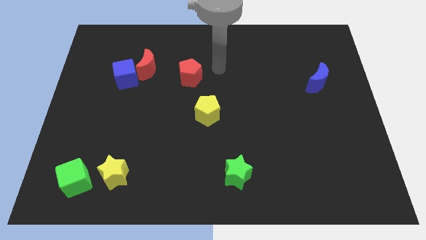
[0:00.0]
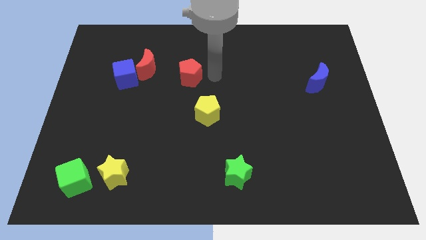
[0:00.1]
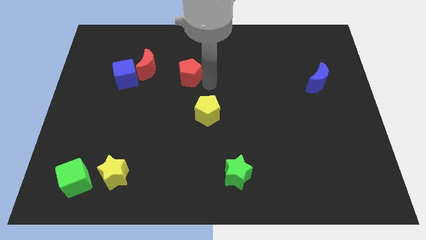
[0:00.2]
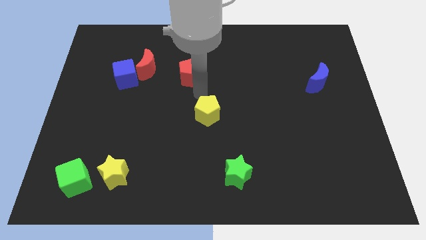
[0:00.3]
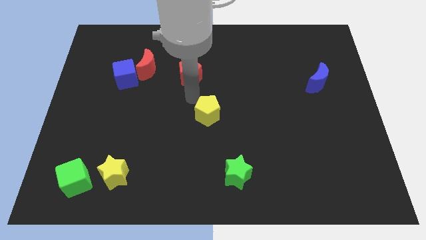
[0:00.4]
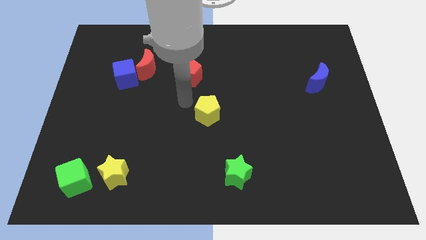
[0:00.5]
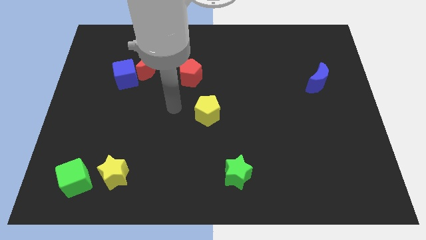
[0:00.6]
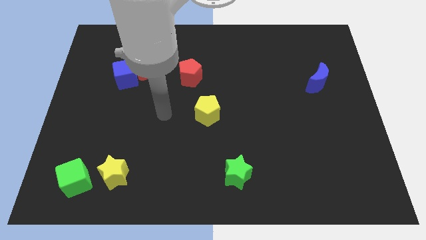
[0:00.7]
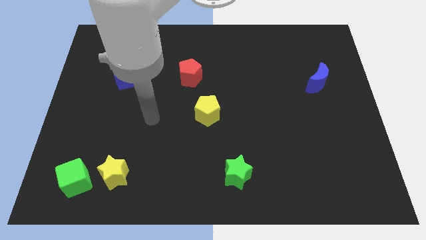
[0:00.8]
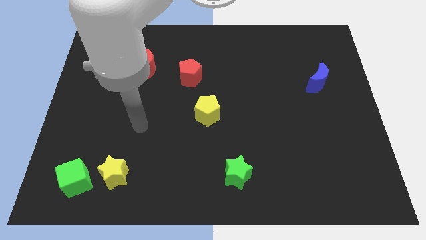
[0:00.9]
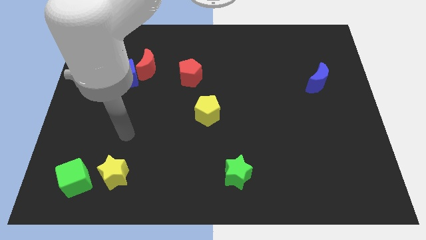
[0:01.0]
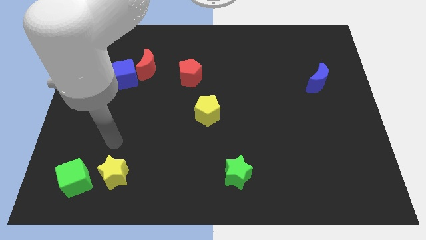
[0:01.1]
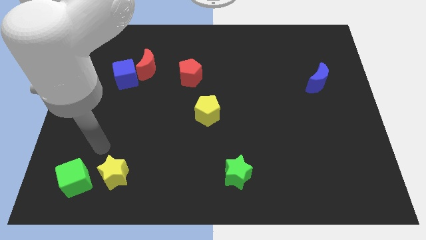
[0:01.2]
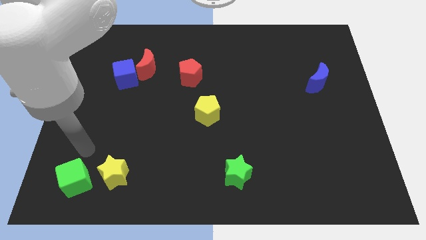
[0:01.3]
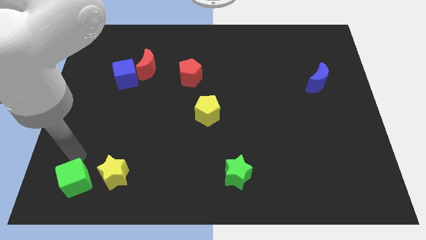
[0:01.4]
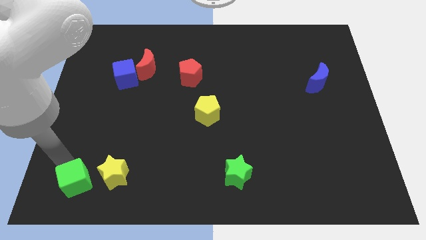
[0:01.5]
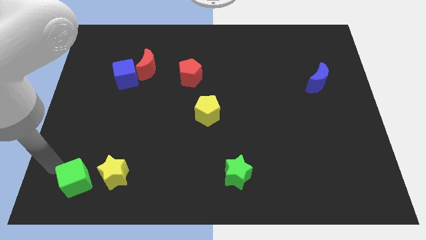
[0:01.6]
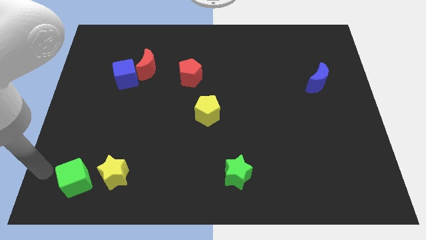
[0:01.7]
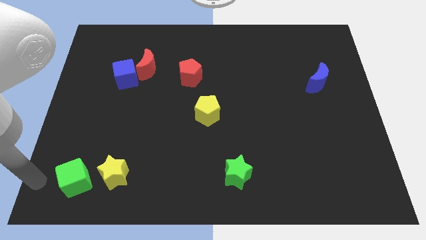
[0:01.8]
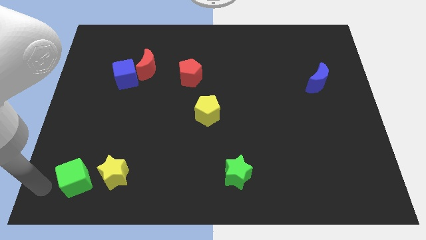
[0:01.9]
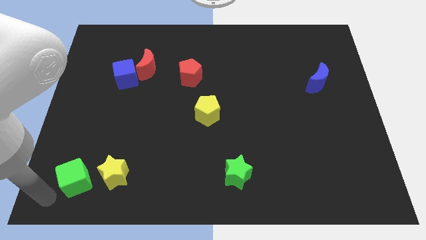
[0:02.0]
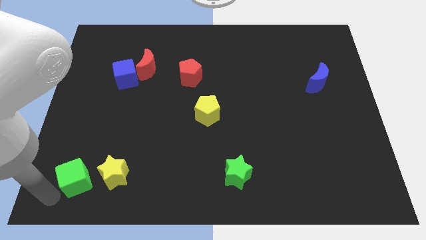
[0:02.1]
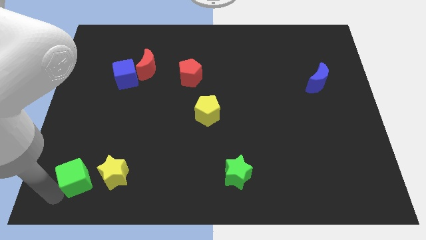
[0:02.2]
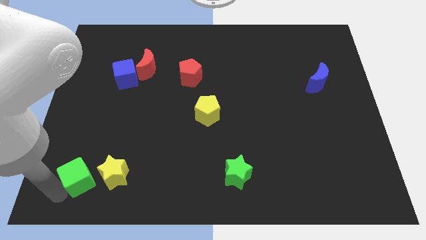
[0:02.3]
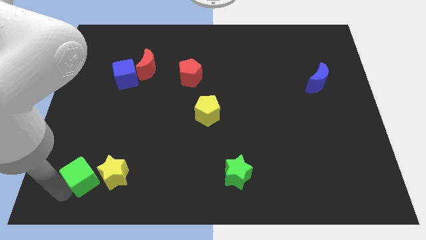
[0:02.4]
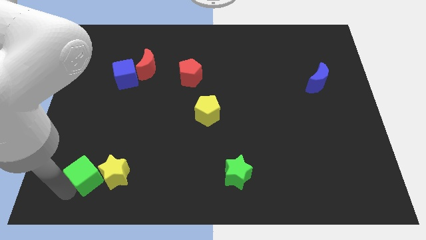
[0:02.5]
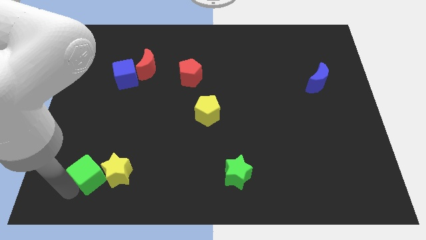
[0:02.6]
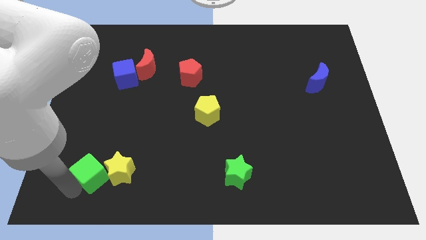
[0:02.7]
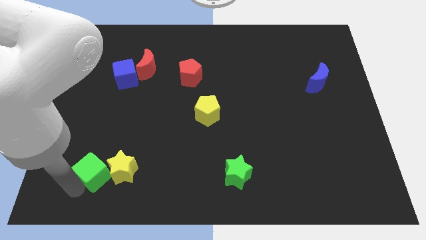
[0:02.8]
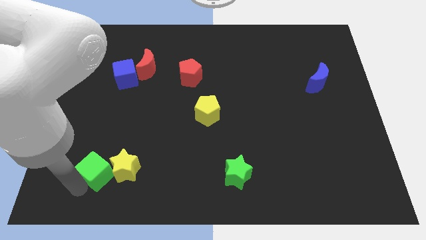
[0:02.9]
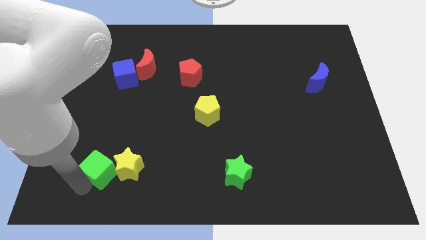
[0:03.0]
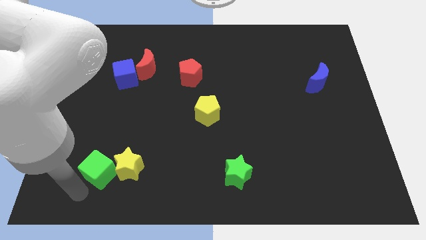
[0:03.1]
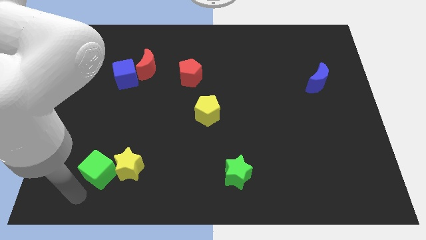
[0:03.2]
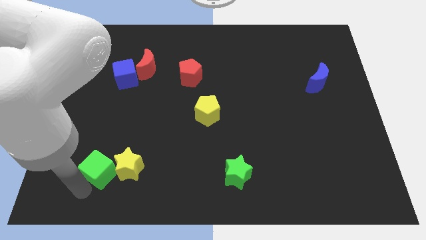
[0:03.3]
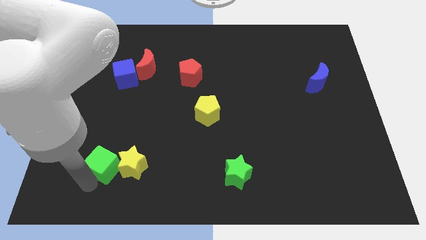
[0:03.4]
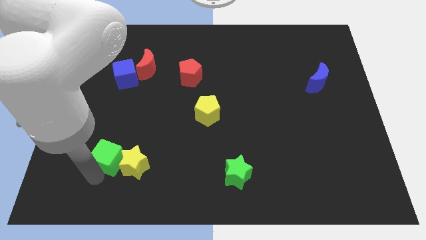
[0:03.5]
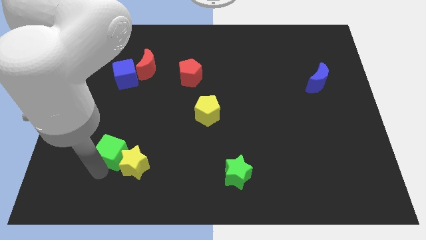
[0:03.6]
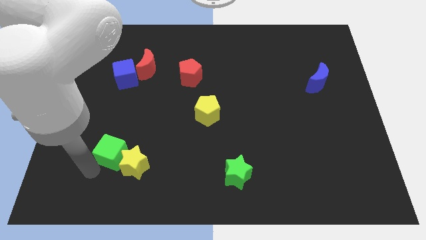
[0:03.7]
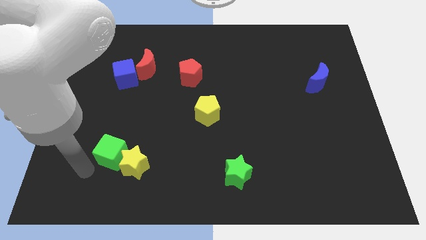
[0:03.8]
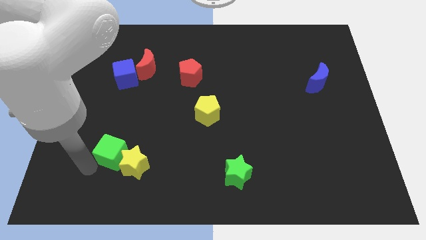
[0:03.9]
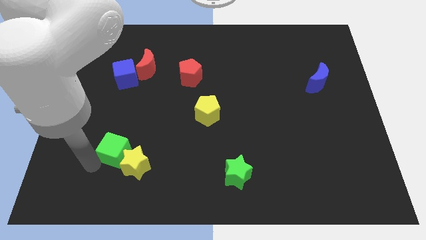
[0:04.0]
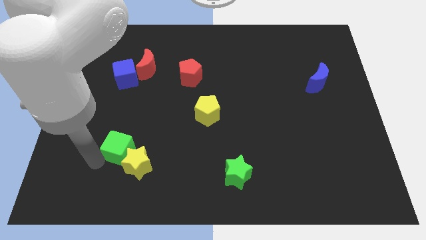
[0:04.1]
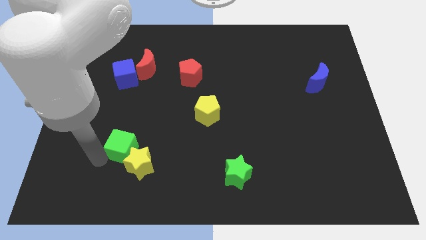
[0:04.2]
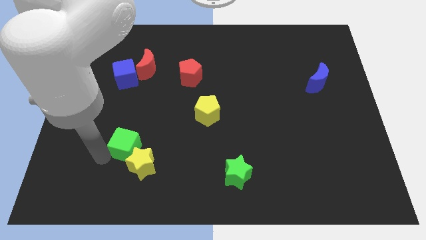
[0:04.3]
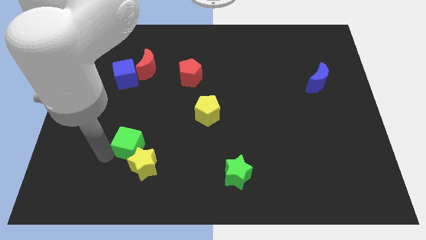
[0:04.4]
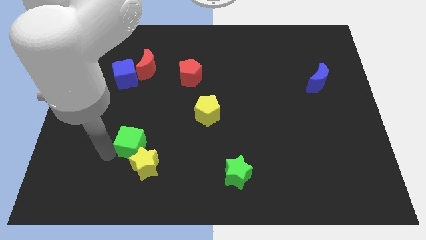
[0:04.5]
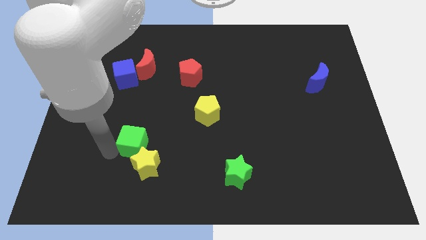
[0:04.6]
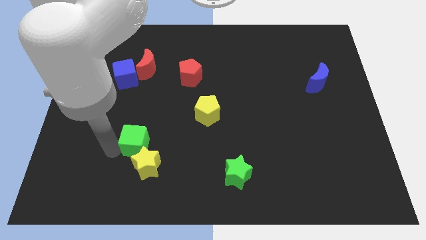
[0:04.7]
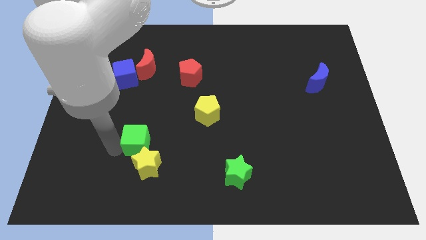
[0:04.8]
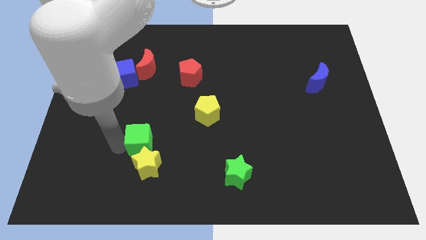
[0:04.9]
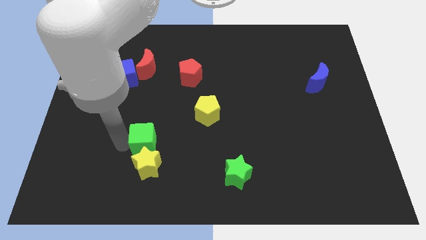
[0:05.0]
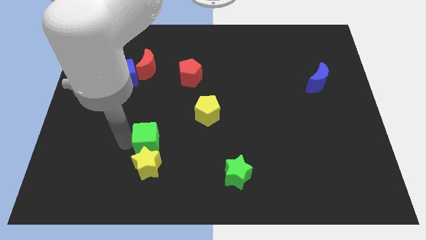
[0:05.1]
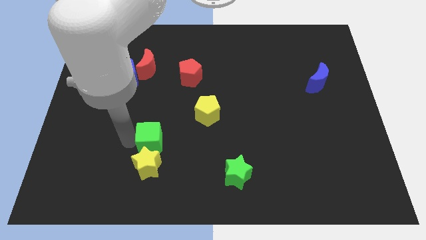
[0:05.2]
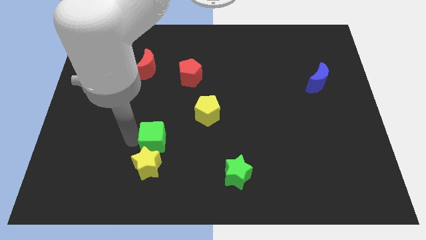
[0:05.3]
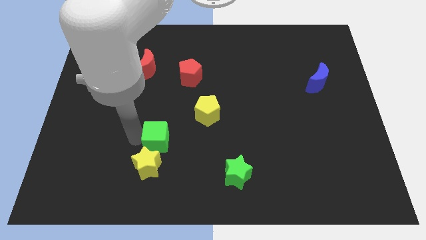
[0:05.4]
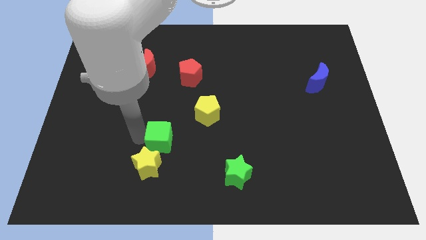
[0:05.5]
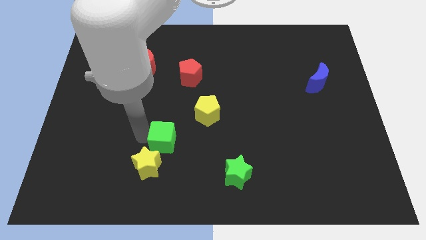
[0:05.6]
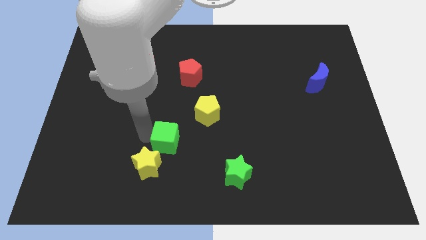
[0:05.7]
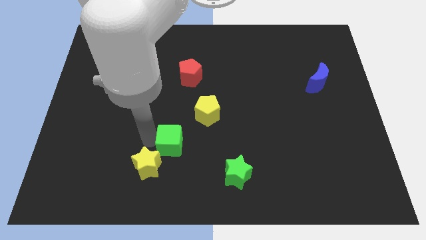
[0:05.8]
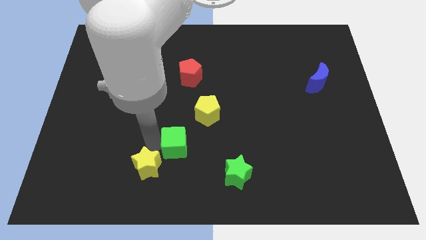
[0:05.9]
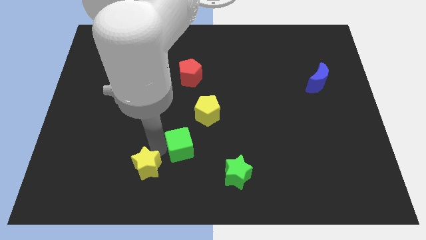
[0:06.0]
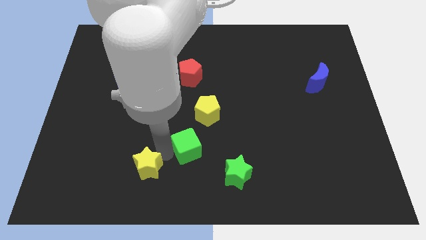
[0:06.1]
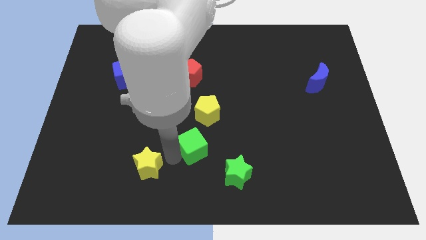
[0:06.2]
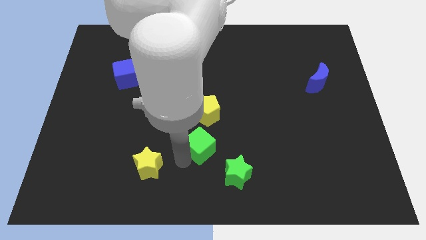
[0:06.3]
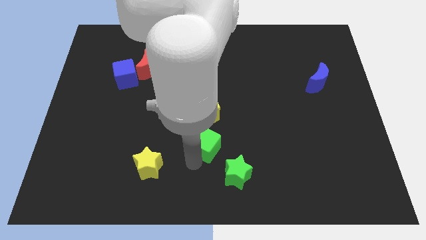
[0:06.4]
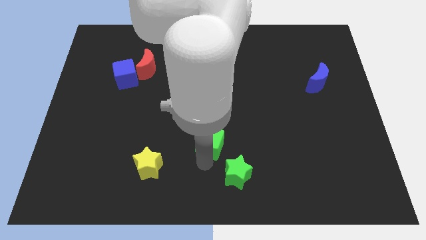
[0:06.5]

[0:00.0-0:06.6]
put the green cube to the center
